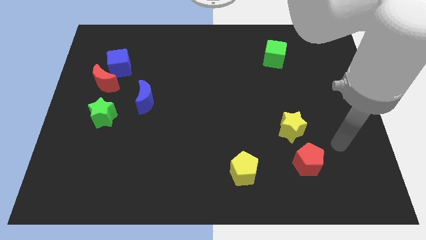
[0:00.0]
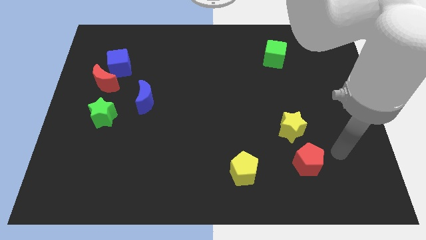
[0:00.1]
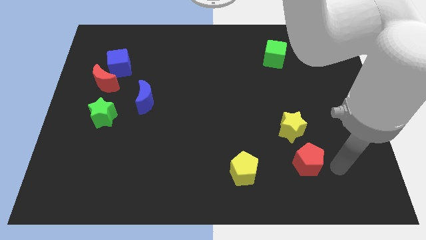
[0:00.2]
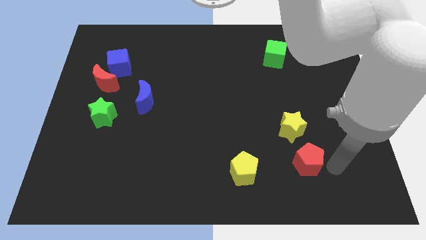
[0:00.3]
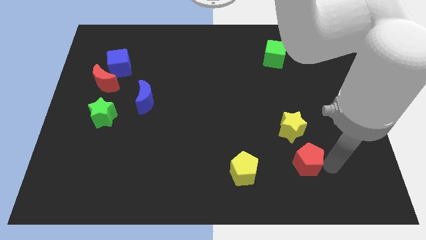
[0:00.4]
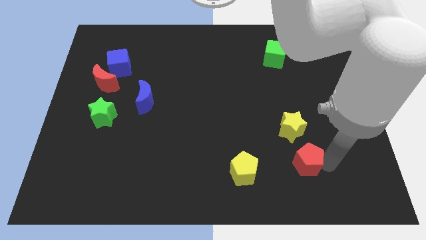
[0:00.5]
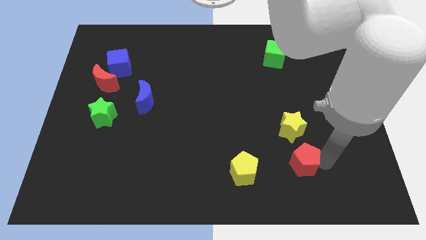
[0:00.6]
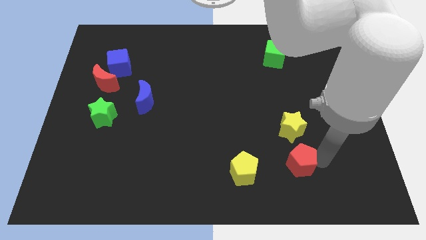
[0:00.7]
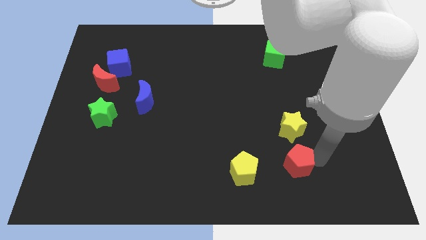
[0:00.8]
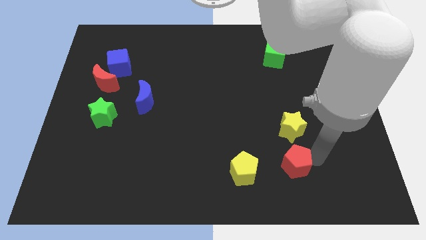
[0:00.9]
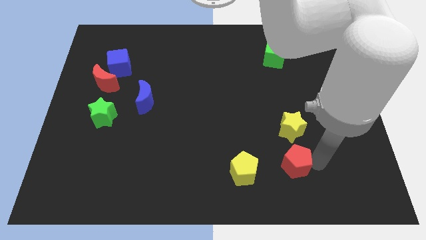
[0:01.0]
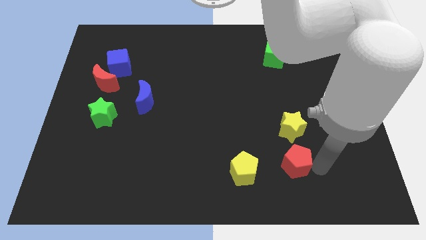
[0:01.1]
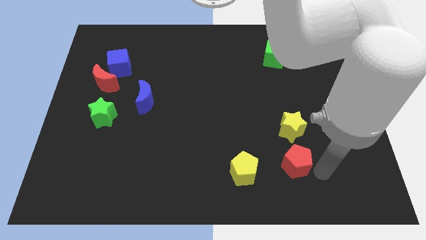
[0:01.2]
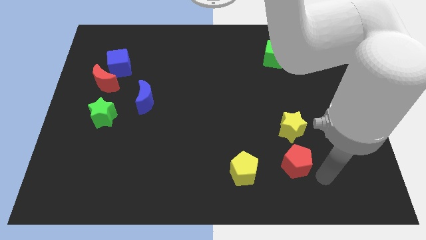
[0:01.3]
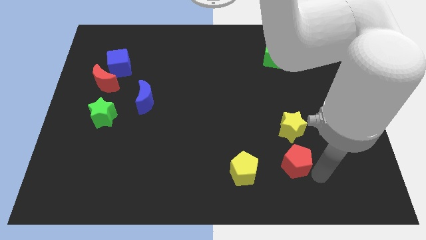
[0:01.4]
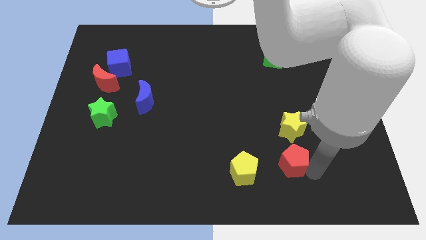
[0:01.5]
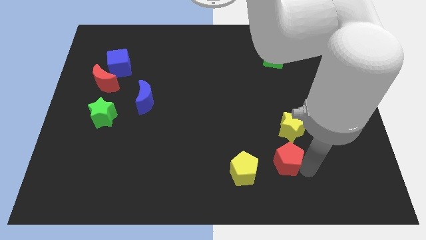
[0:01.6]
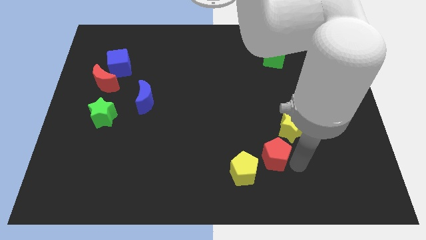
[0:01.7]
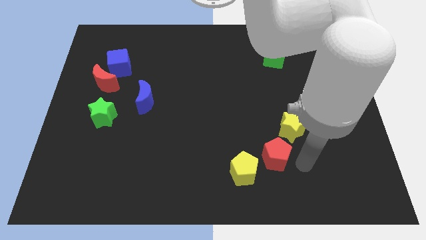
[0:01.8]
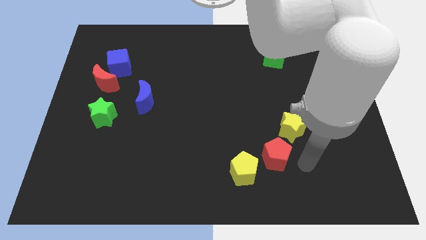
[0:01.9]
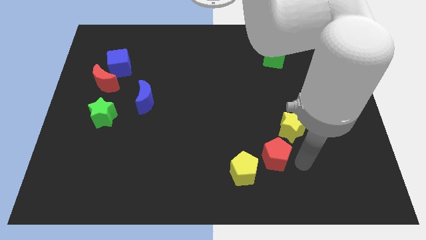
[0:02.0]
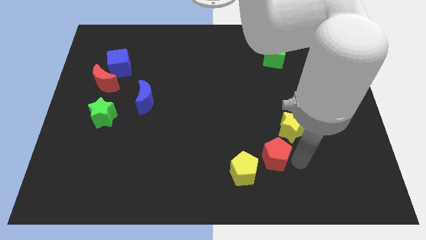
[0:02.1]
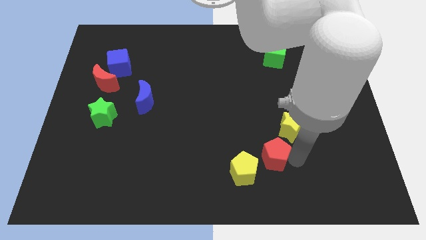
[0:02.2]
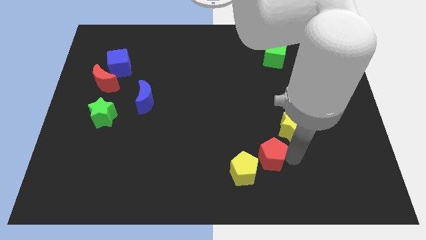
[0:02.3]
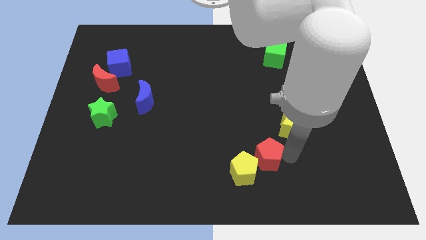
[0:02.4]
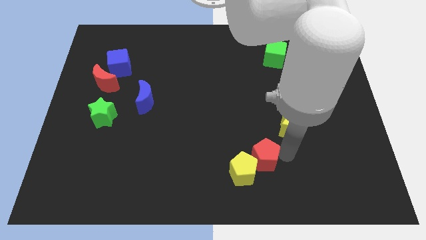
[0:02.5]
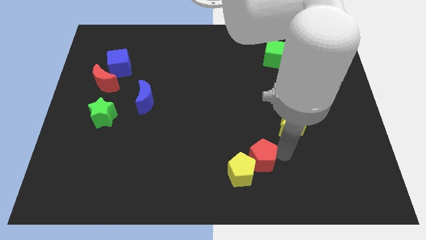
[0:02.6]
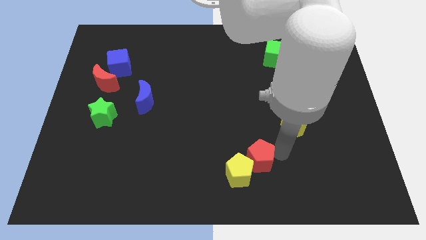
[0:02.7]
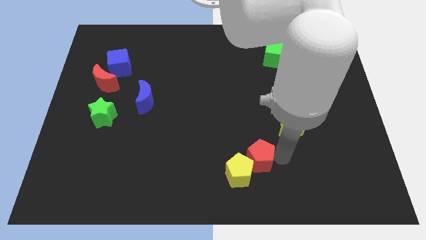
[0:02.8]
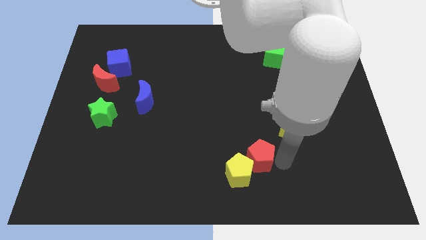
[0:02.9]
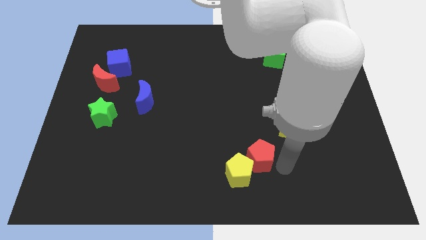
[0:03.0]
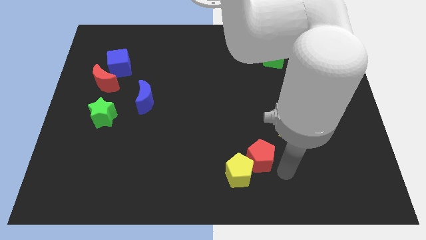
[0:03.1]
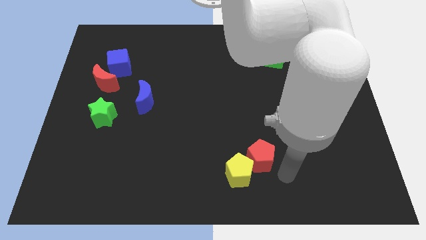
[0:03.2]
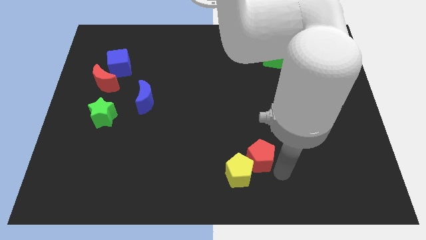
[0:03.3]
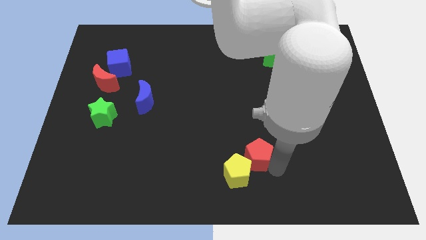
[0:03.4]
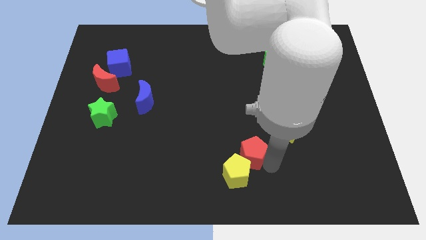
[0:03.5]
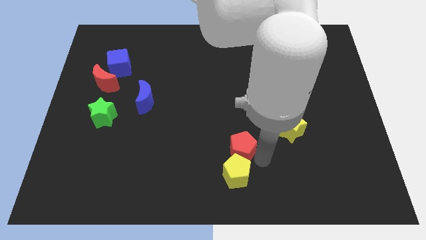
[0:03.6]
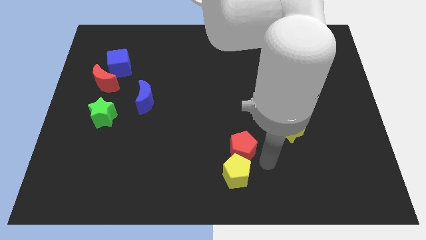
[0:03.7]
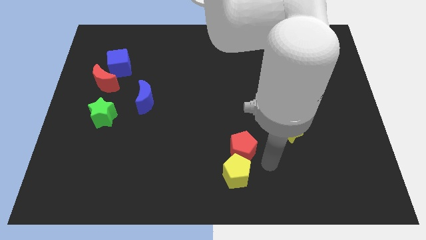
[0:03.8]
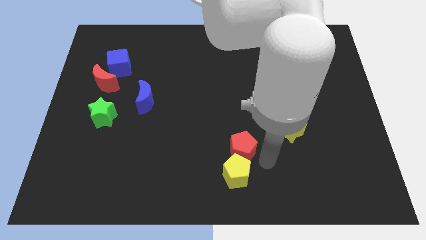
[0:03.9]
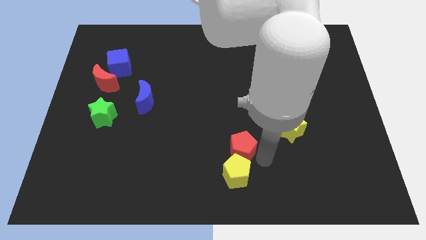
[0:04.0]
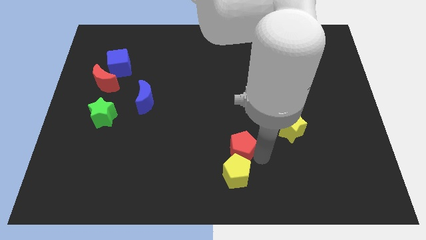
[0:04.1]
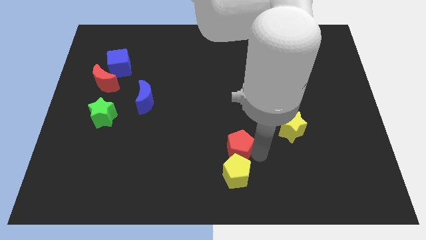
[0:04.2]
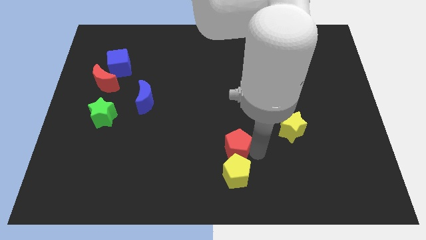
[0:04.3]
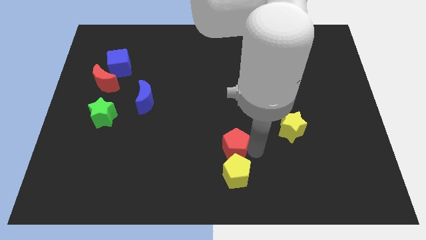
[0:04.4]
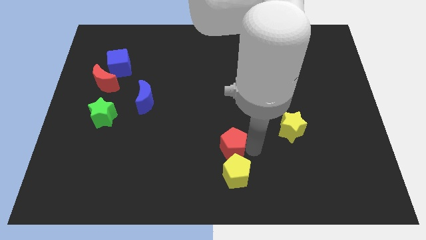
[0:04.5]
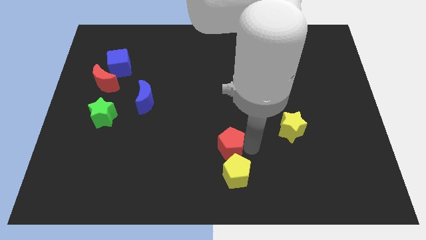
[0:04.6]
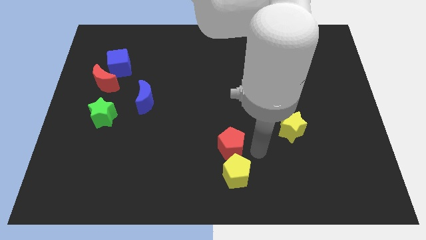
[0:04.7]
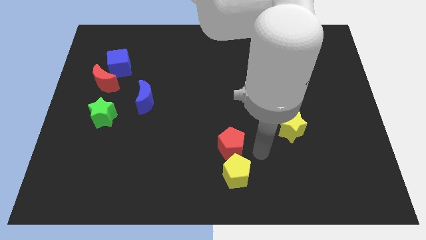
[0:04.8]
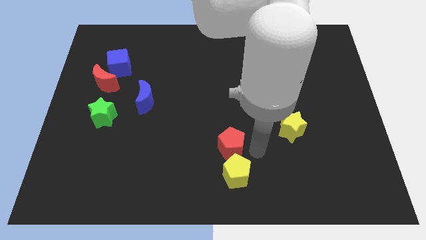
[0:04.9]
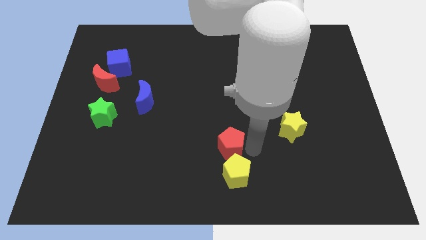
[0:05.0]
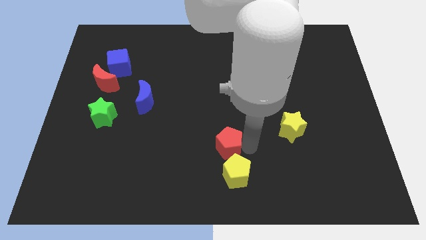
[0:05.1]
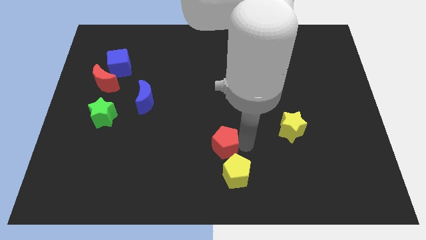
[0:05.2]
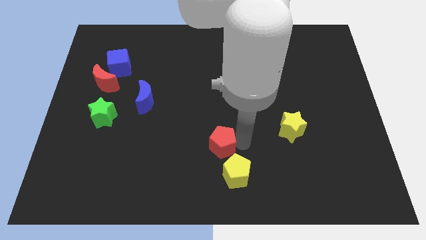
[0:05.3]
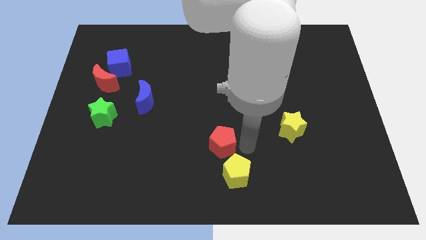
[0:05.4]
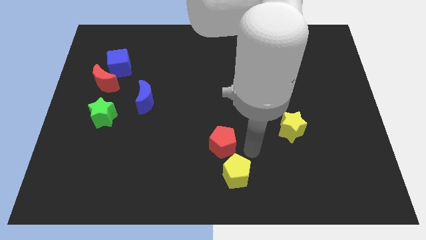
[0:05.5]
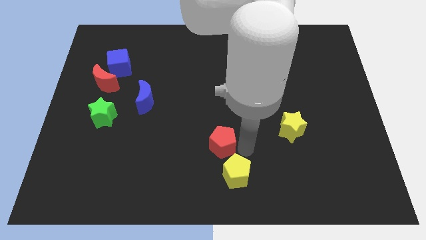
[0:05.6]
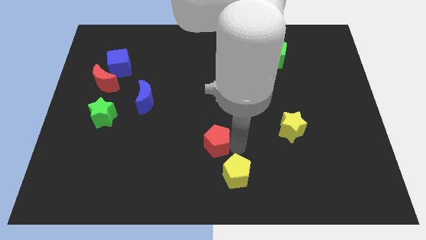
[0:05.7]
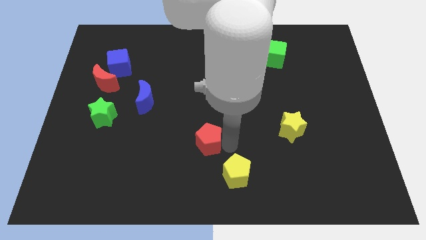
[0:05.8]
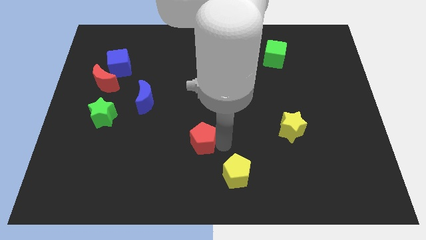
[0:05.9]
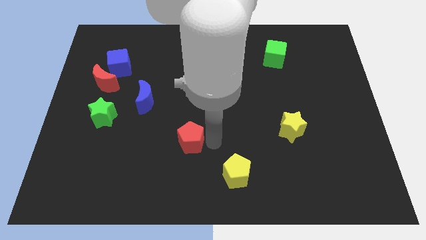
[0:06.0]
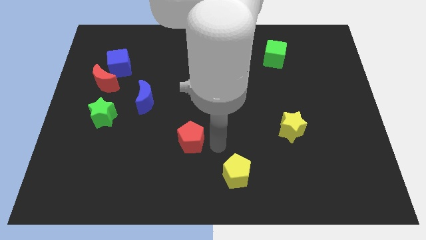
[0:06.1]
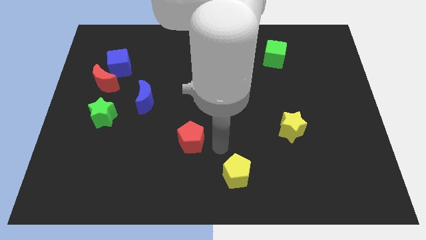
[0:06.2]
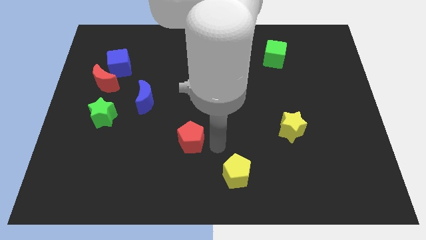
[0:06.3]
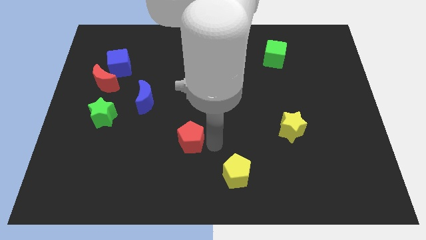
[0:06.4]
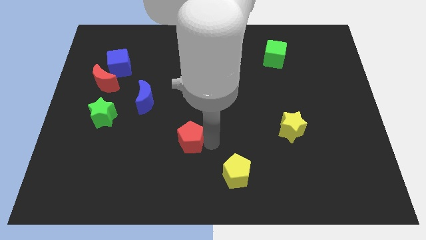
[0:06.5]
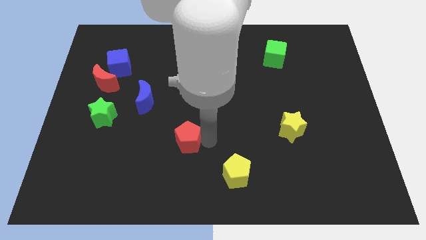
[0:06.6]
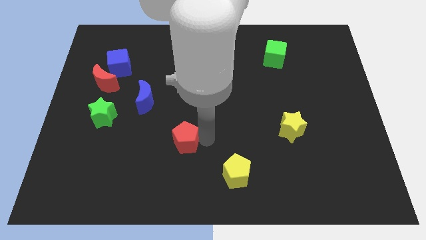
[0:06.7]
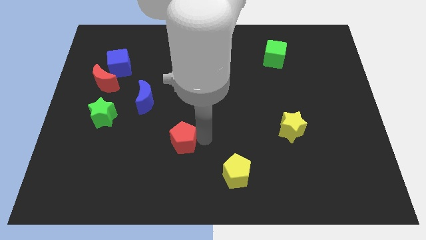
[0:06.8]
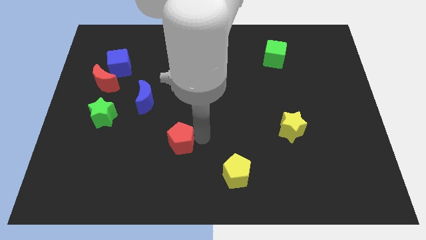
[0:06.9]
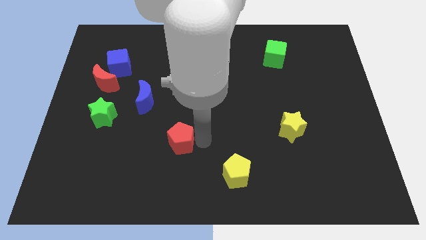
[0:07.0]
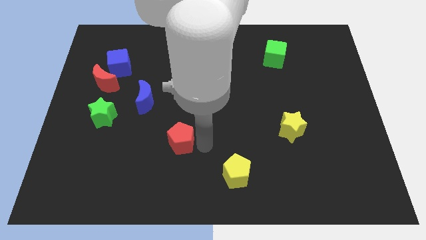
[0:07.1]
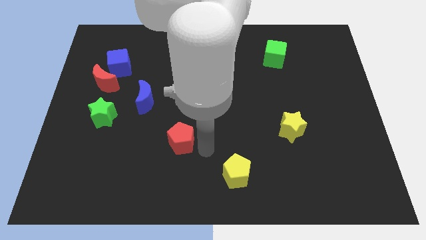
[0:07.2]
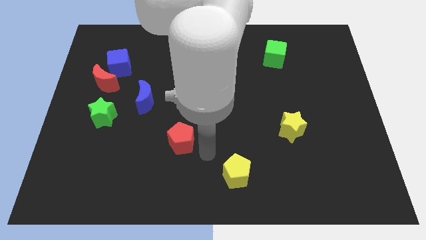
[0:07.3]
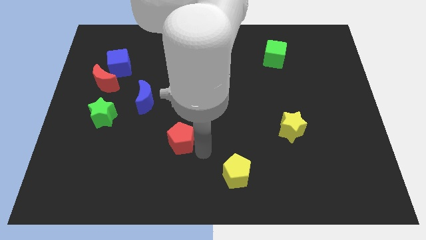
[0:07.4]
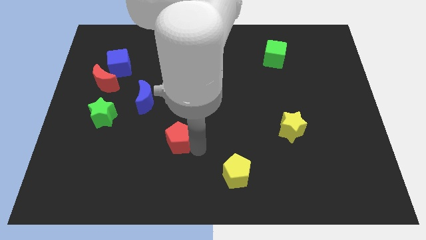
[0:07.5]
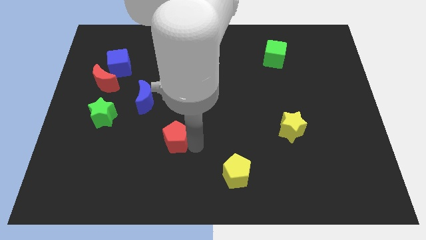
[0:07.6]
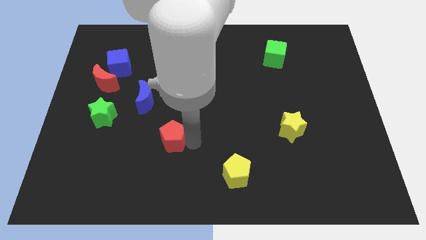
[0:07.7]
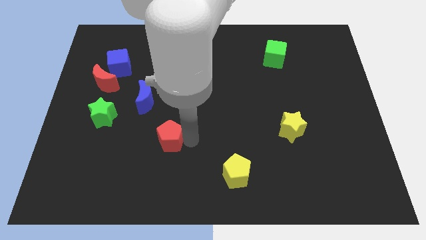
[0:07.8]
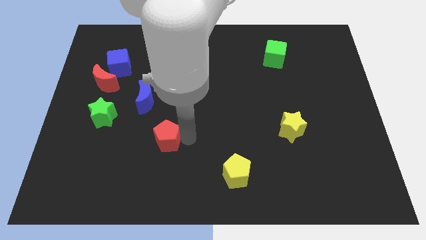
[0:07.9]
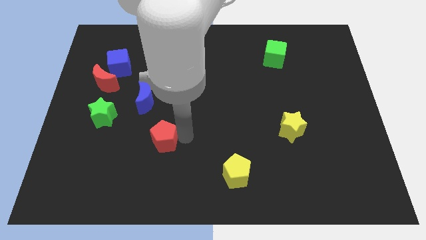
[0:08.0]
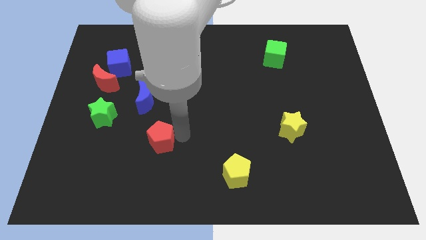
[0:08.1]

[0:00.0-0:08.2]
slide the red pentagon to the bottom of the blue moon
